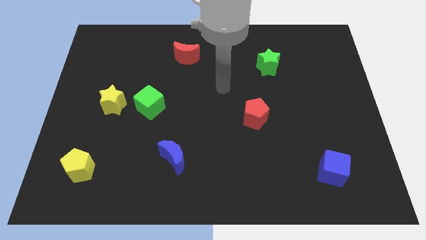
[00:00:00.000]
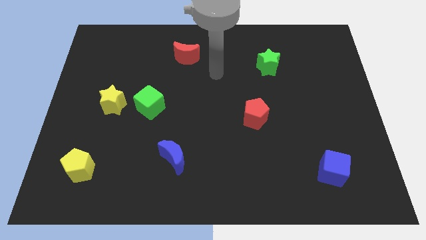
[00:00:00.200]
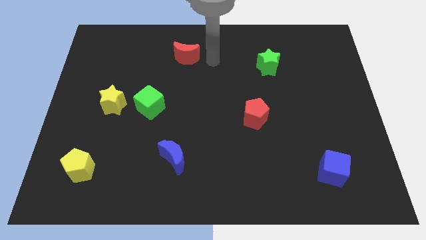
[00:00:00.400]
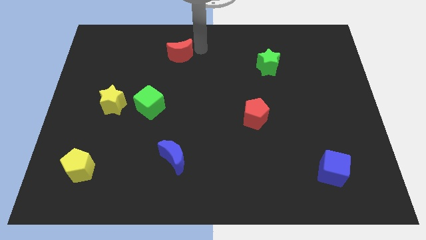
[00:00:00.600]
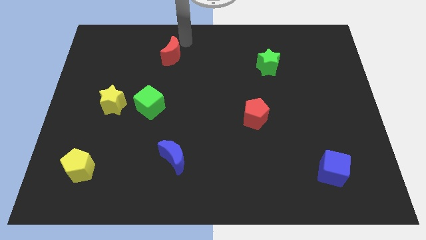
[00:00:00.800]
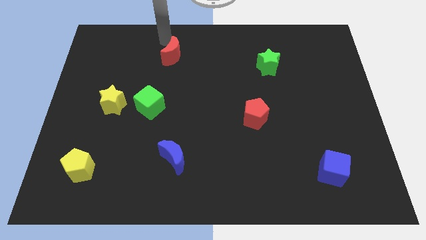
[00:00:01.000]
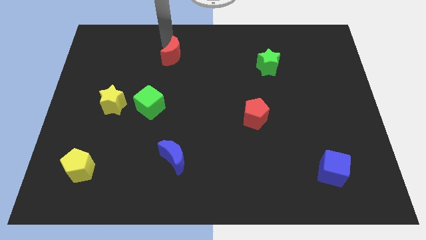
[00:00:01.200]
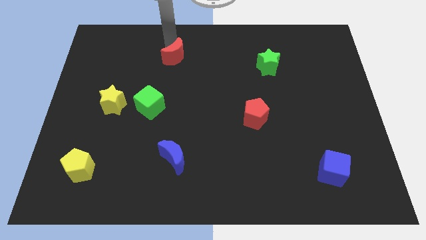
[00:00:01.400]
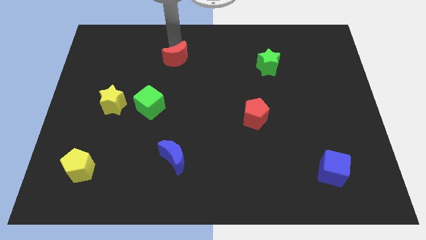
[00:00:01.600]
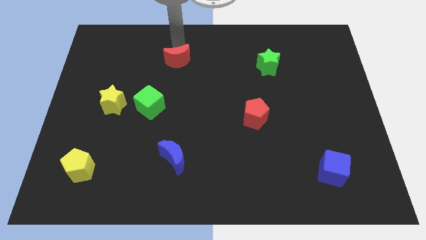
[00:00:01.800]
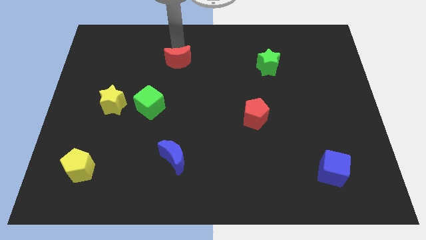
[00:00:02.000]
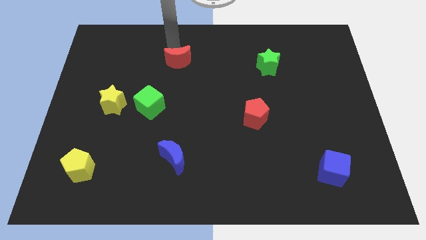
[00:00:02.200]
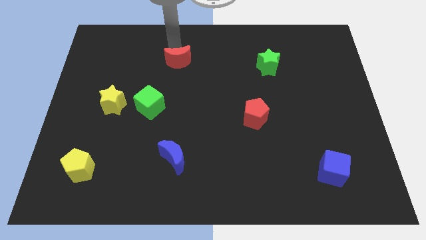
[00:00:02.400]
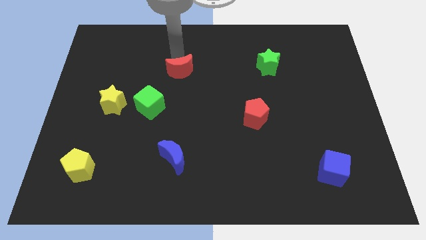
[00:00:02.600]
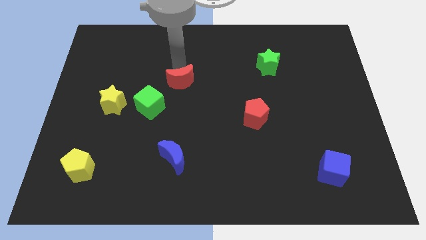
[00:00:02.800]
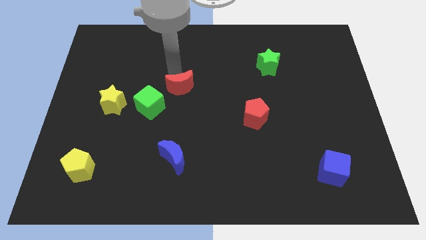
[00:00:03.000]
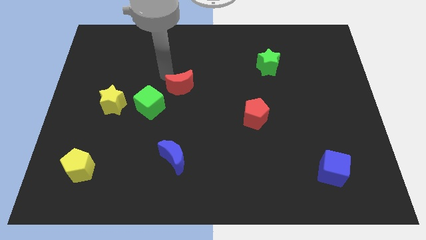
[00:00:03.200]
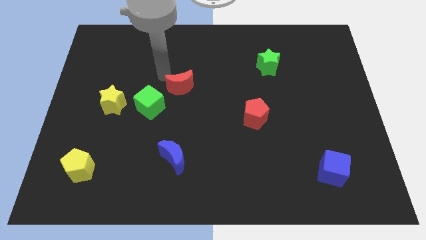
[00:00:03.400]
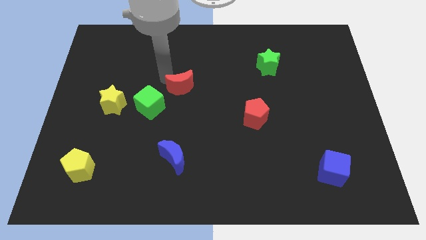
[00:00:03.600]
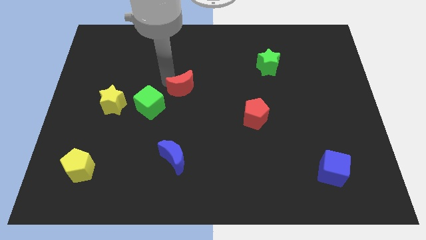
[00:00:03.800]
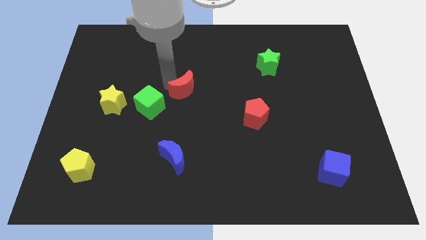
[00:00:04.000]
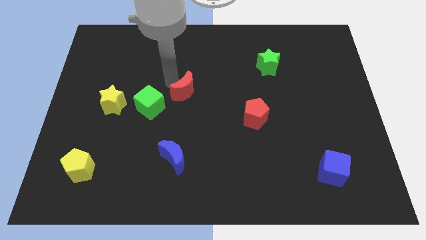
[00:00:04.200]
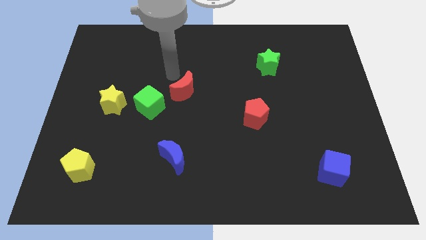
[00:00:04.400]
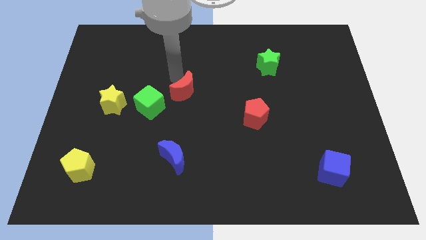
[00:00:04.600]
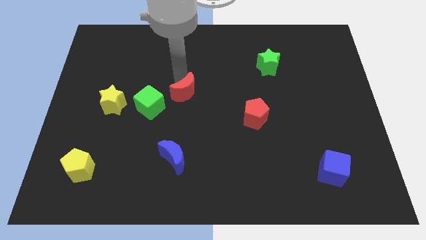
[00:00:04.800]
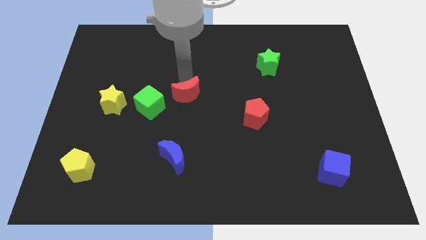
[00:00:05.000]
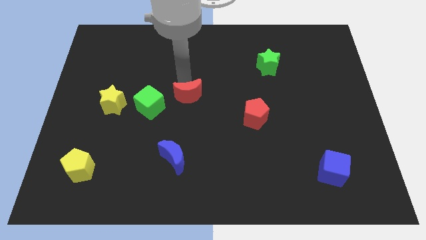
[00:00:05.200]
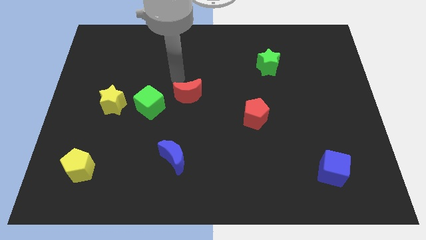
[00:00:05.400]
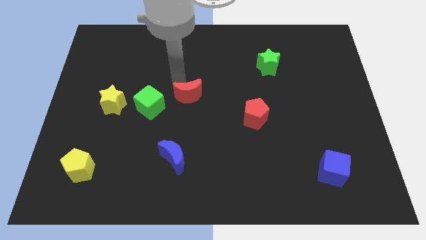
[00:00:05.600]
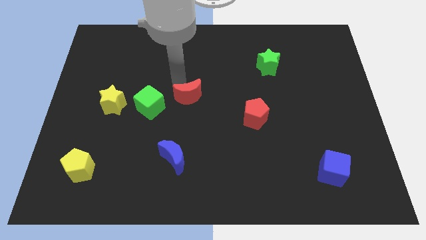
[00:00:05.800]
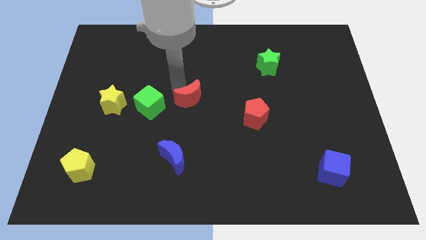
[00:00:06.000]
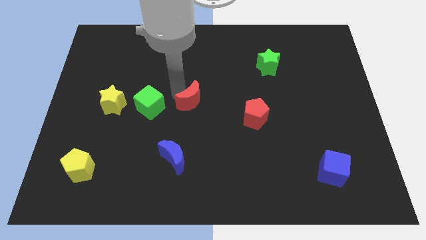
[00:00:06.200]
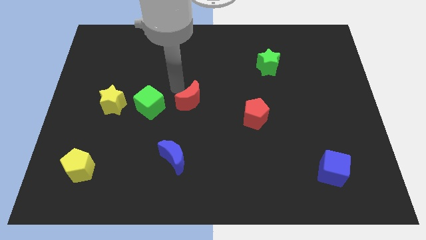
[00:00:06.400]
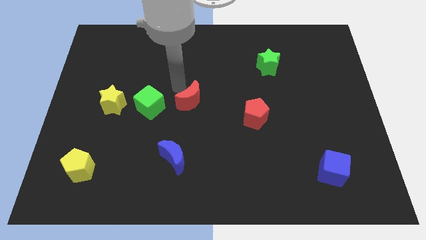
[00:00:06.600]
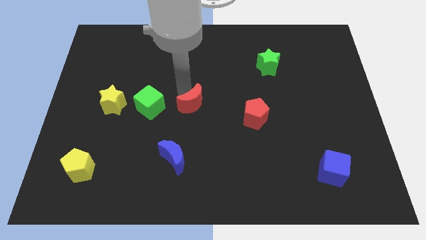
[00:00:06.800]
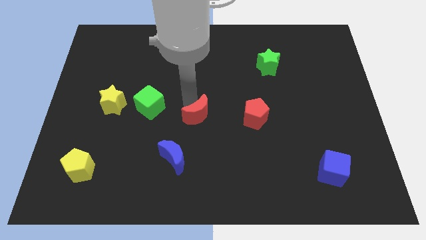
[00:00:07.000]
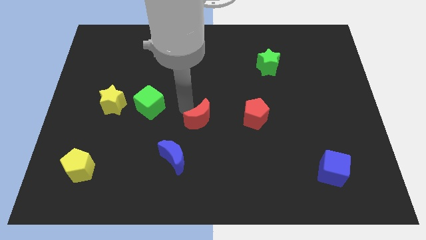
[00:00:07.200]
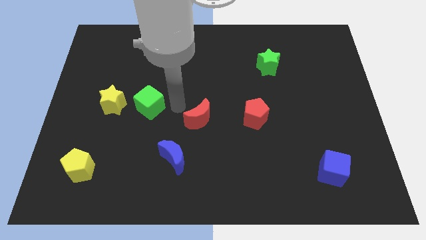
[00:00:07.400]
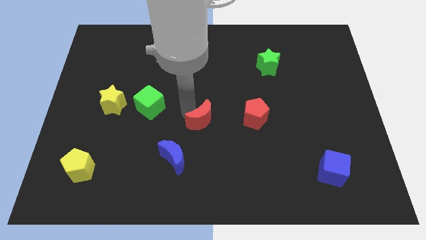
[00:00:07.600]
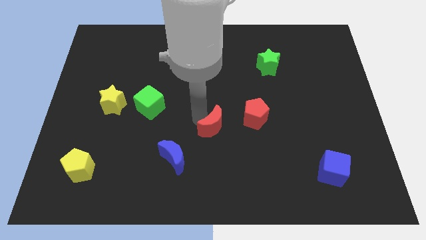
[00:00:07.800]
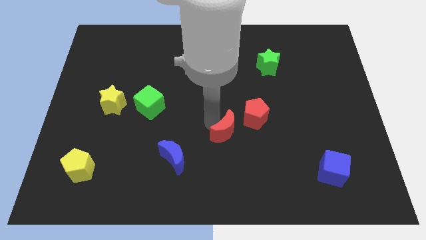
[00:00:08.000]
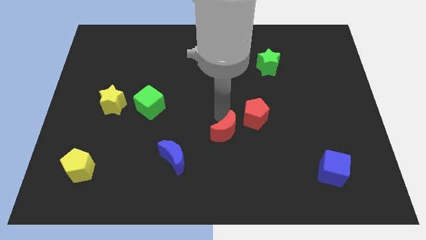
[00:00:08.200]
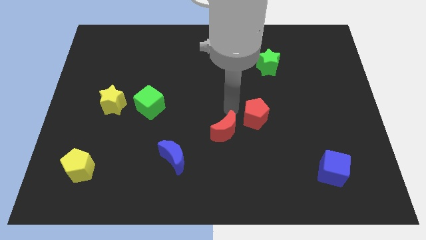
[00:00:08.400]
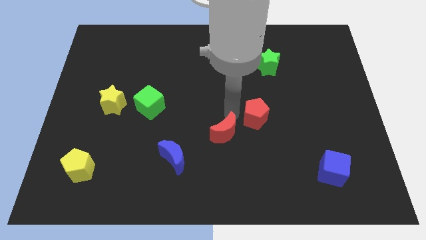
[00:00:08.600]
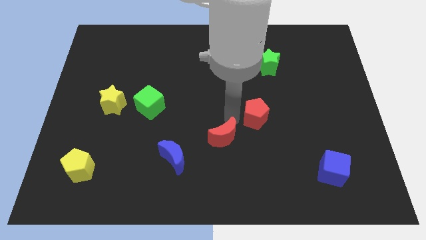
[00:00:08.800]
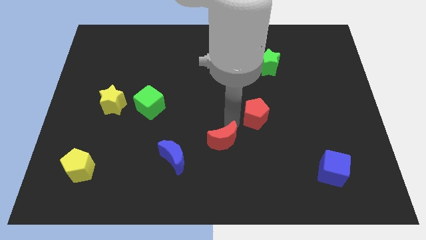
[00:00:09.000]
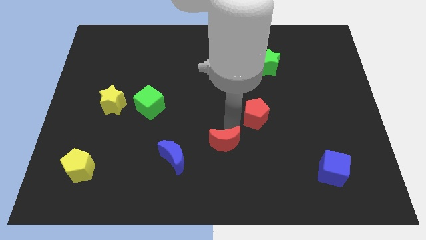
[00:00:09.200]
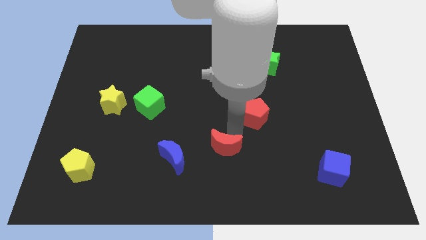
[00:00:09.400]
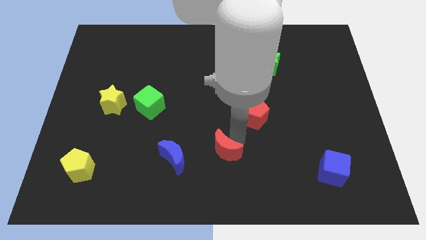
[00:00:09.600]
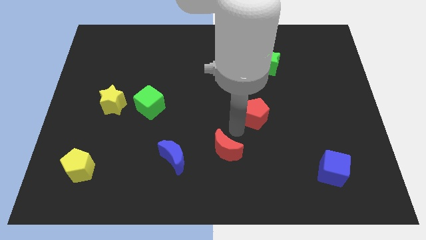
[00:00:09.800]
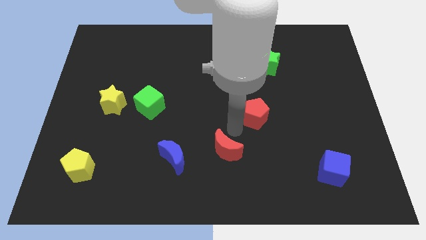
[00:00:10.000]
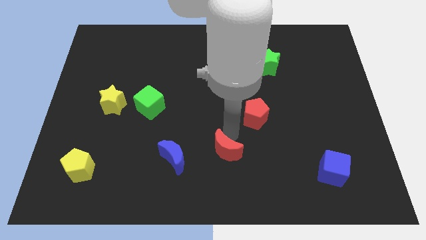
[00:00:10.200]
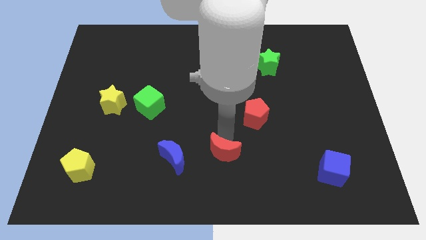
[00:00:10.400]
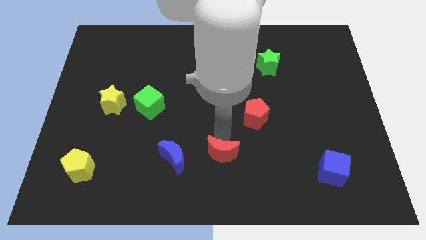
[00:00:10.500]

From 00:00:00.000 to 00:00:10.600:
move the red moon to the bottom

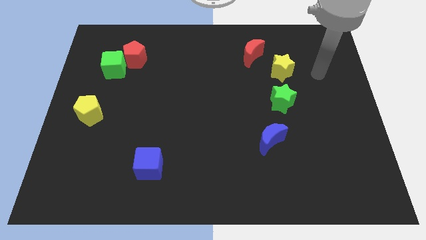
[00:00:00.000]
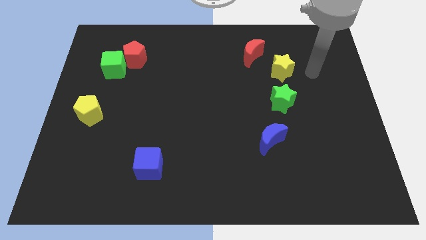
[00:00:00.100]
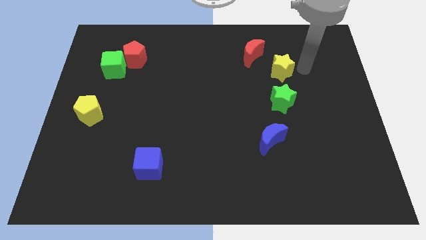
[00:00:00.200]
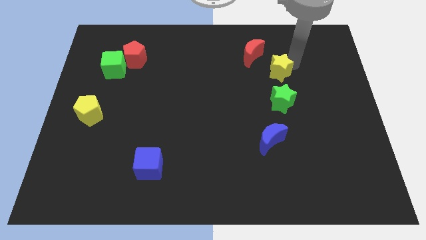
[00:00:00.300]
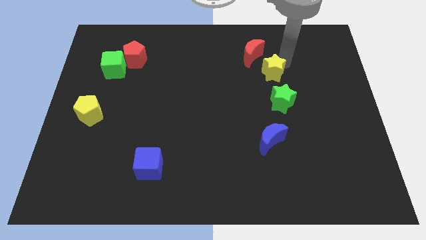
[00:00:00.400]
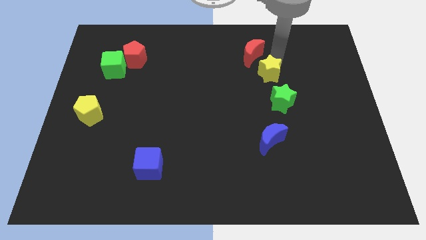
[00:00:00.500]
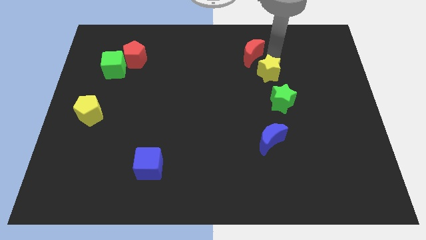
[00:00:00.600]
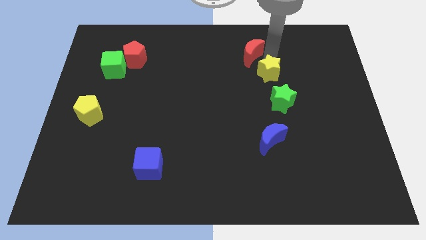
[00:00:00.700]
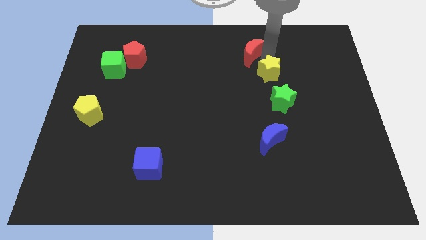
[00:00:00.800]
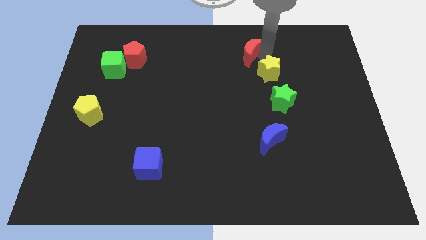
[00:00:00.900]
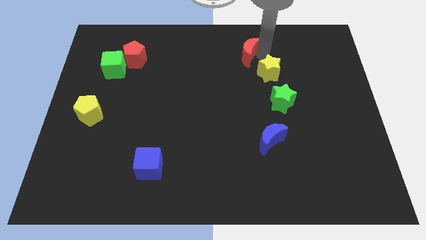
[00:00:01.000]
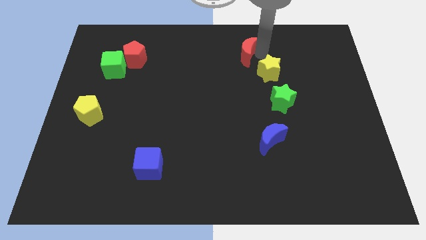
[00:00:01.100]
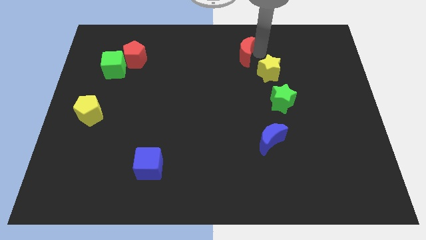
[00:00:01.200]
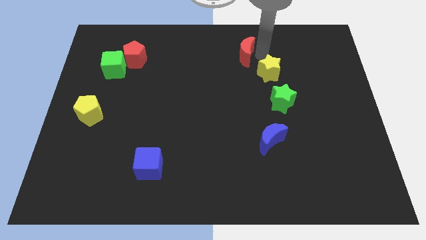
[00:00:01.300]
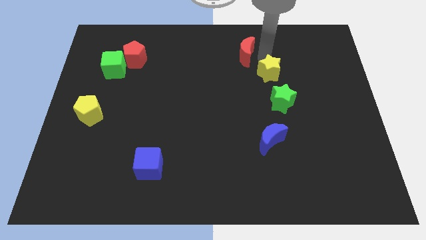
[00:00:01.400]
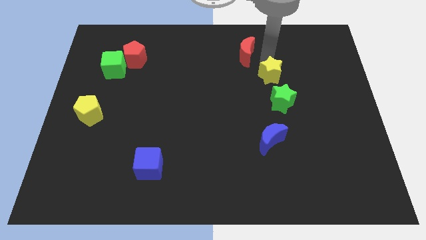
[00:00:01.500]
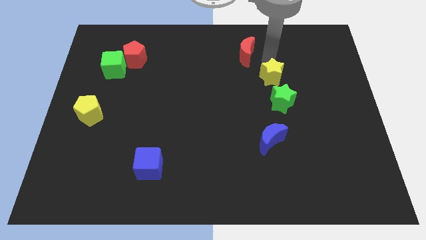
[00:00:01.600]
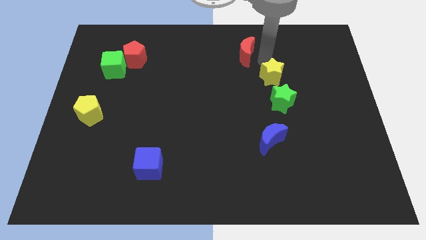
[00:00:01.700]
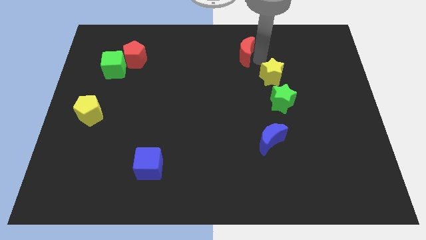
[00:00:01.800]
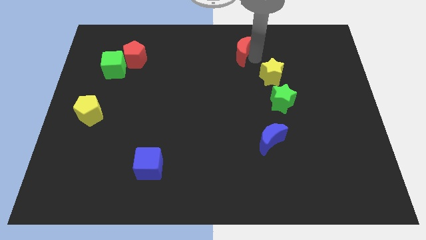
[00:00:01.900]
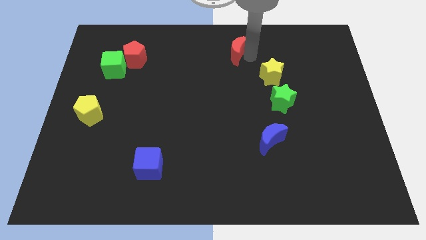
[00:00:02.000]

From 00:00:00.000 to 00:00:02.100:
slide the red moon to the top
